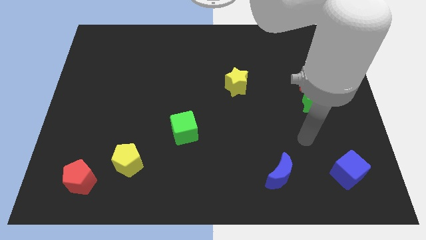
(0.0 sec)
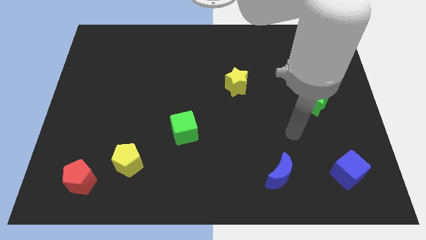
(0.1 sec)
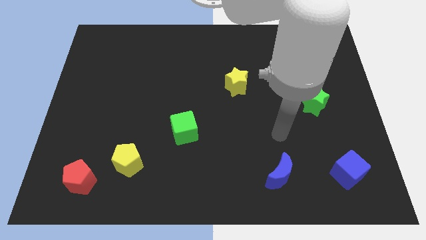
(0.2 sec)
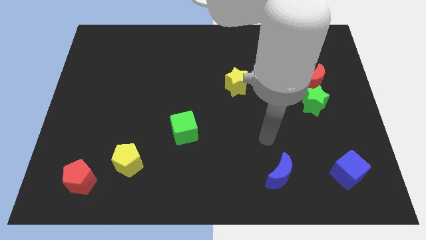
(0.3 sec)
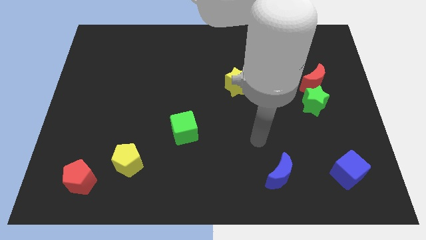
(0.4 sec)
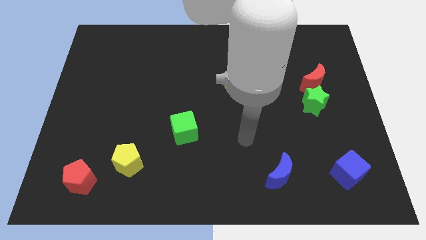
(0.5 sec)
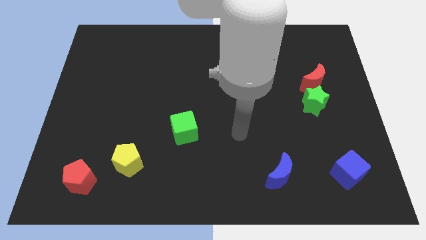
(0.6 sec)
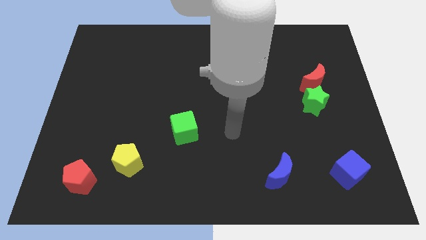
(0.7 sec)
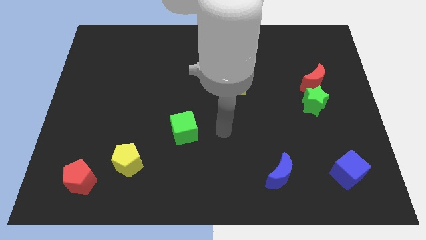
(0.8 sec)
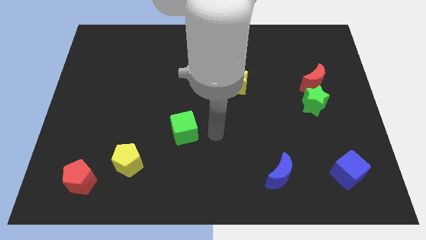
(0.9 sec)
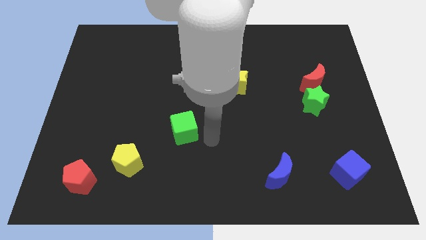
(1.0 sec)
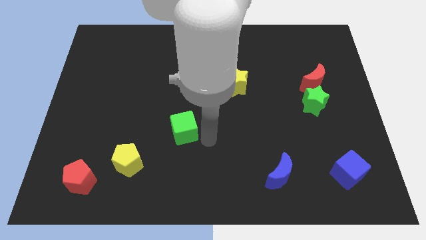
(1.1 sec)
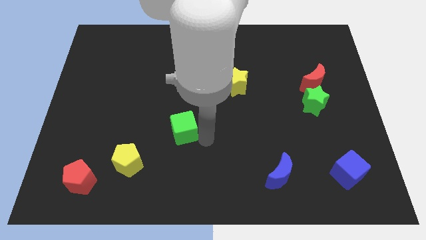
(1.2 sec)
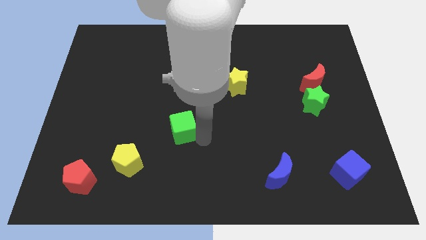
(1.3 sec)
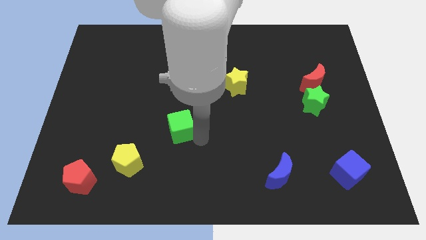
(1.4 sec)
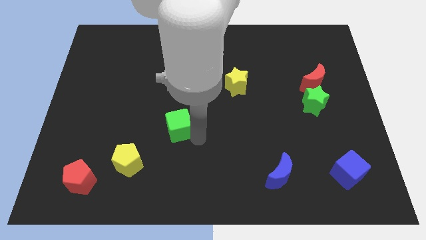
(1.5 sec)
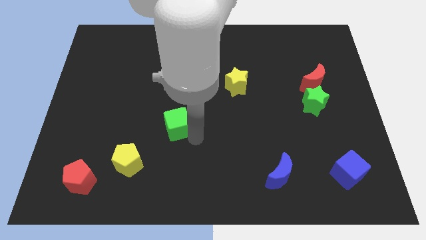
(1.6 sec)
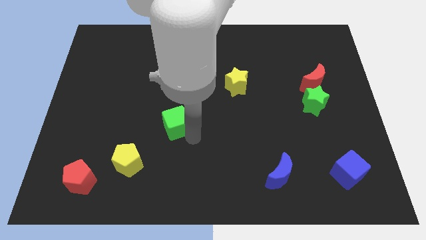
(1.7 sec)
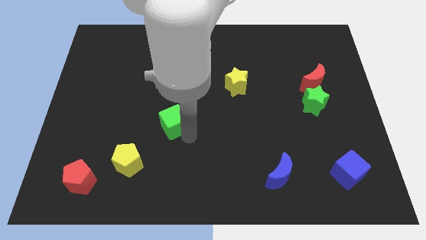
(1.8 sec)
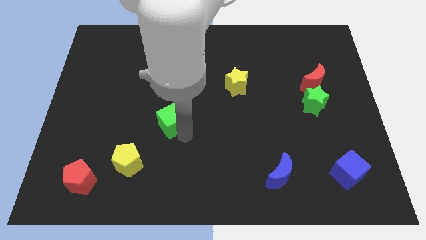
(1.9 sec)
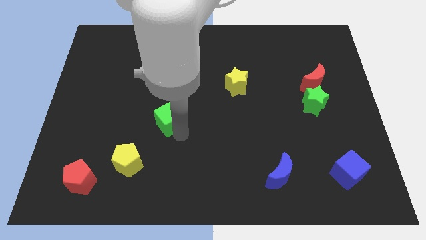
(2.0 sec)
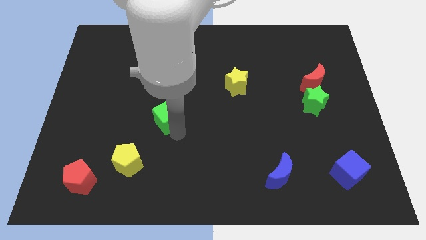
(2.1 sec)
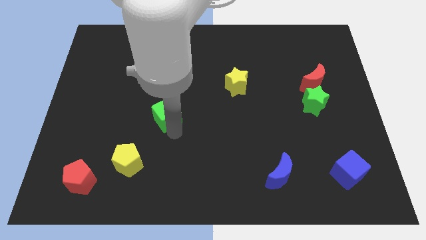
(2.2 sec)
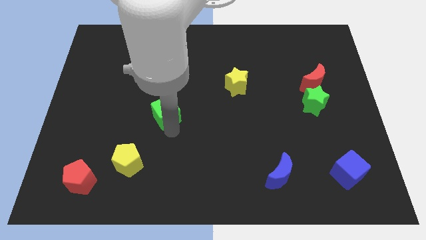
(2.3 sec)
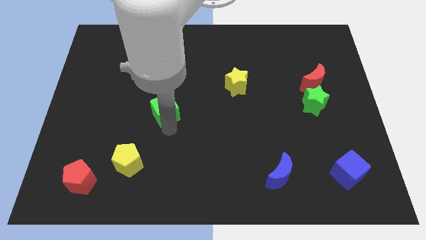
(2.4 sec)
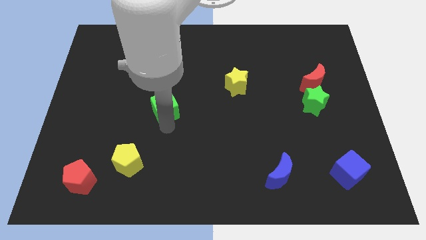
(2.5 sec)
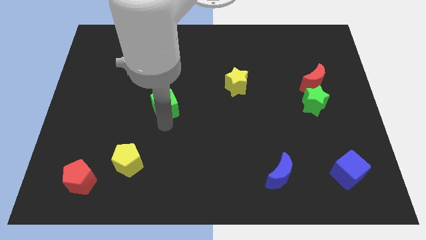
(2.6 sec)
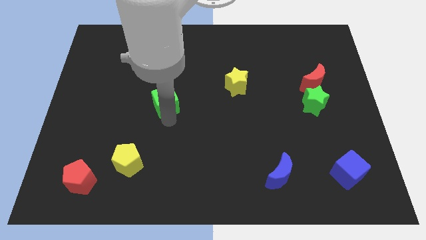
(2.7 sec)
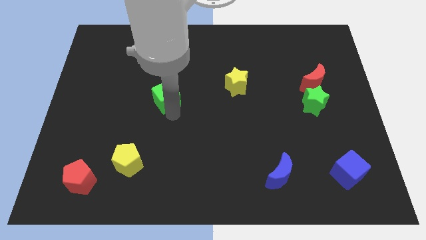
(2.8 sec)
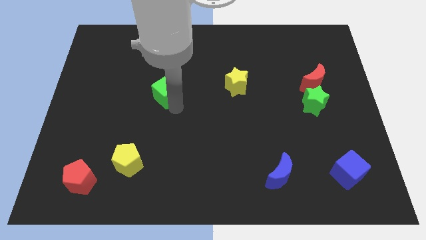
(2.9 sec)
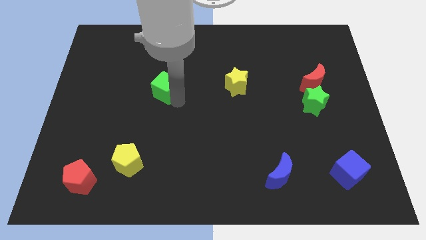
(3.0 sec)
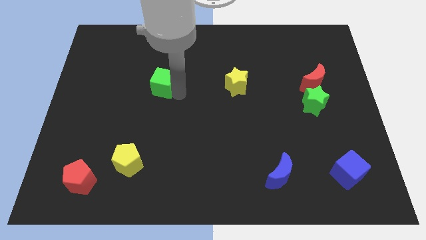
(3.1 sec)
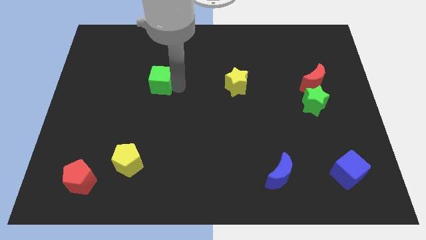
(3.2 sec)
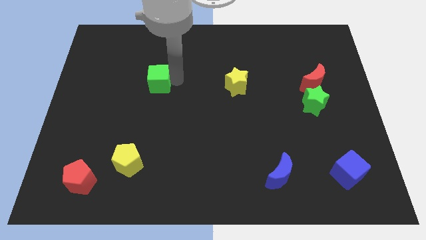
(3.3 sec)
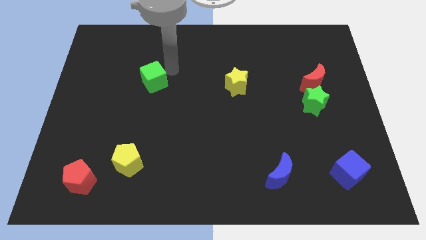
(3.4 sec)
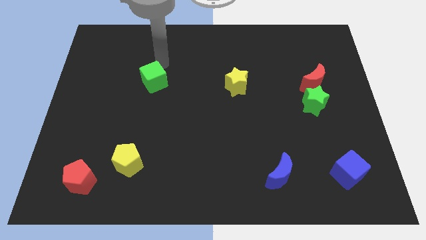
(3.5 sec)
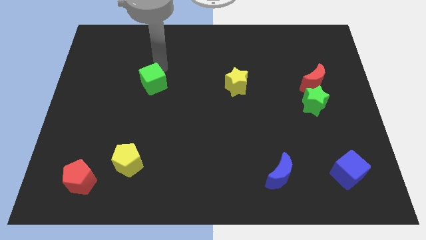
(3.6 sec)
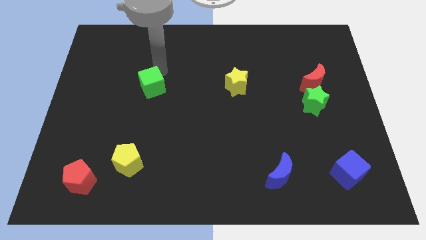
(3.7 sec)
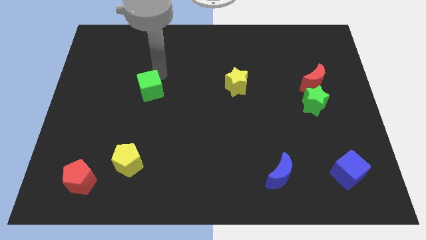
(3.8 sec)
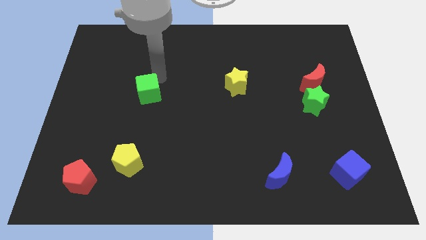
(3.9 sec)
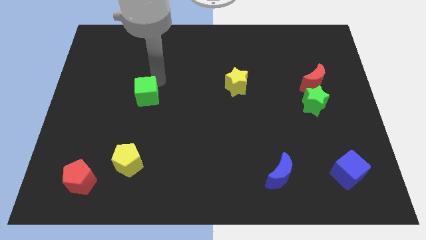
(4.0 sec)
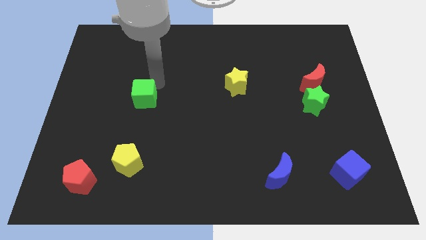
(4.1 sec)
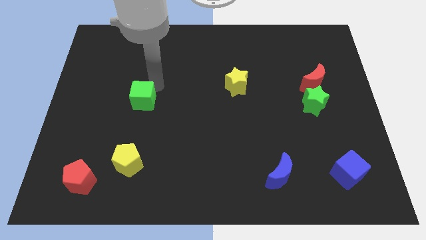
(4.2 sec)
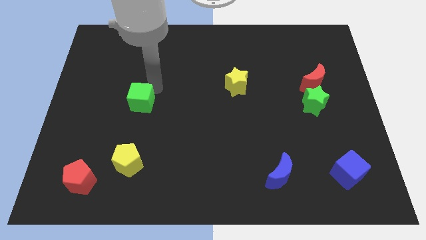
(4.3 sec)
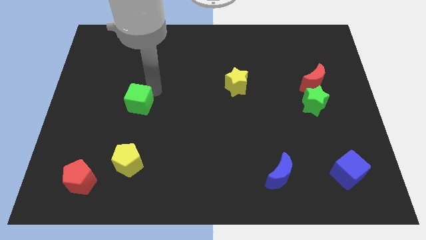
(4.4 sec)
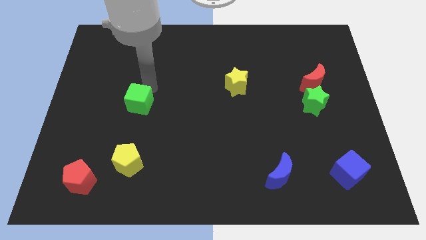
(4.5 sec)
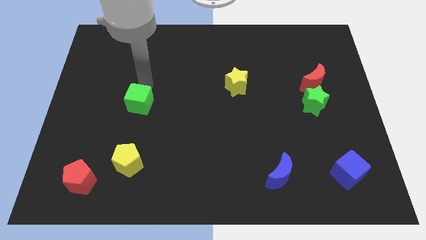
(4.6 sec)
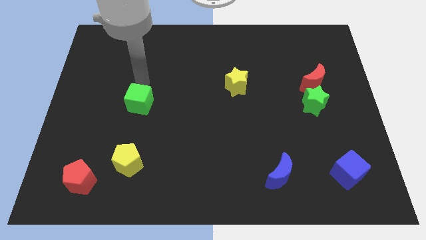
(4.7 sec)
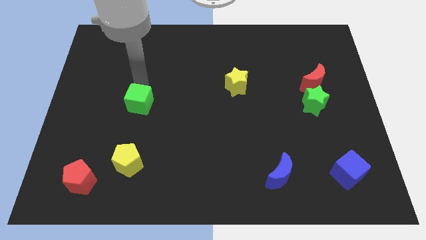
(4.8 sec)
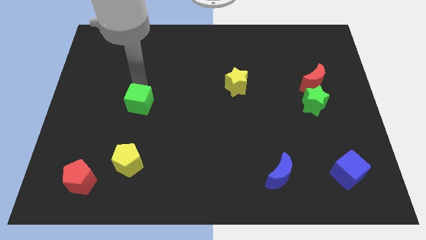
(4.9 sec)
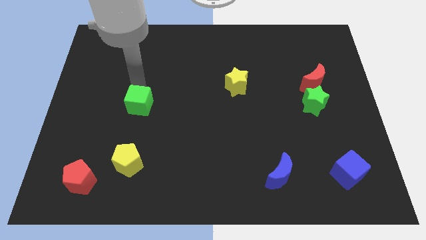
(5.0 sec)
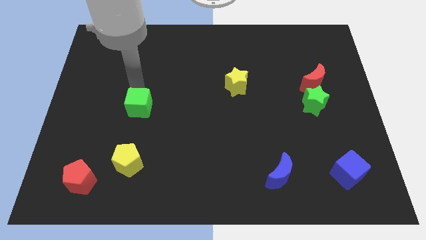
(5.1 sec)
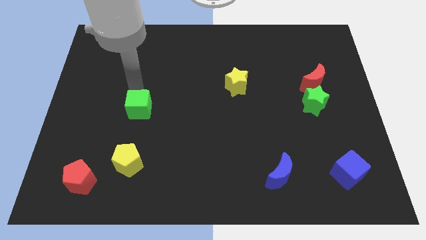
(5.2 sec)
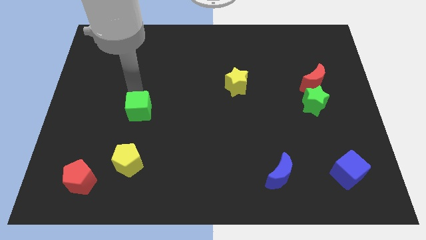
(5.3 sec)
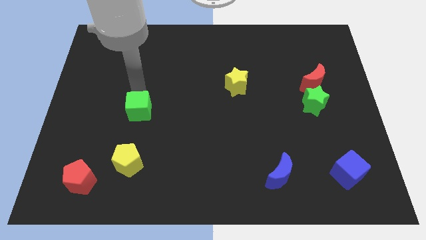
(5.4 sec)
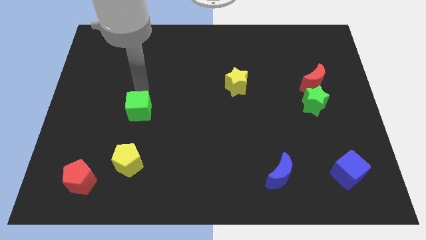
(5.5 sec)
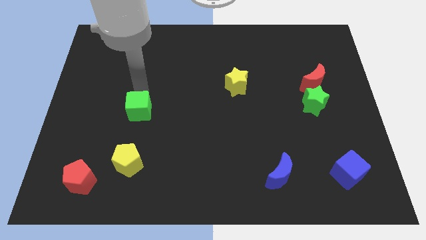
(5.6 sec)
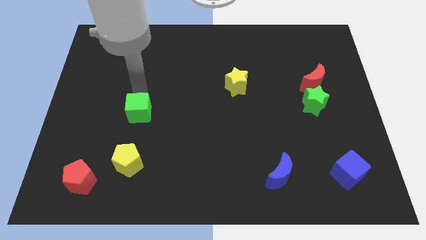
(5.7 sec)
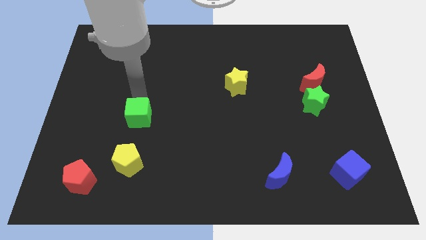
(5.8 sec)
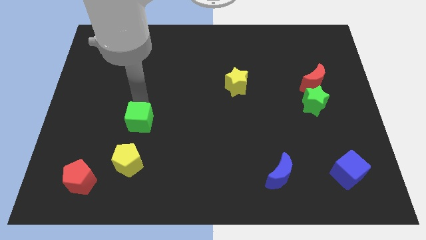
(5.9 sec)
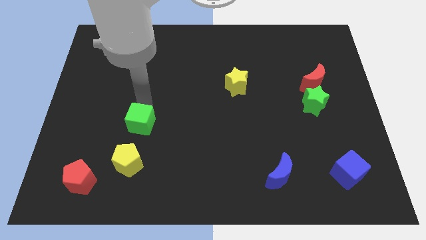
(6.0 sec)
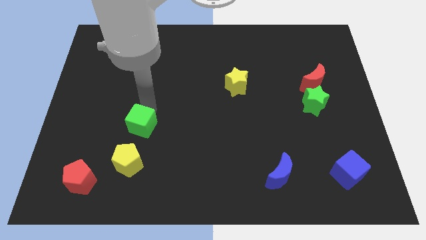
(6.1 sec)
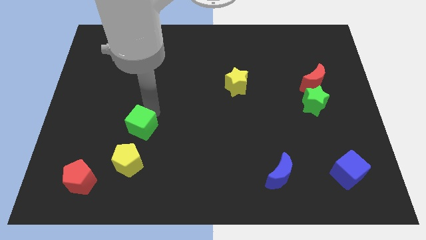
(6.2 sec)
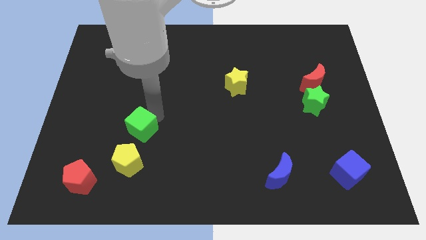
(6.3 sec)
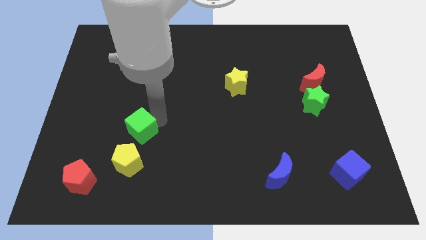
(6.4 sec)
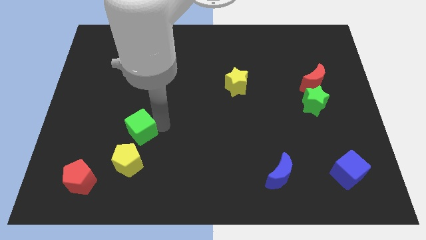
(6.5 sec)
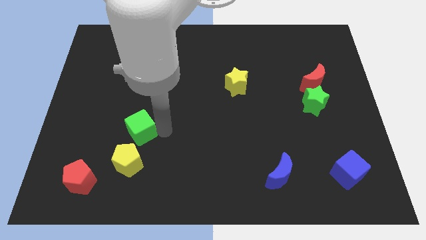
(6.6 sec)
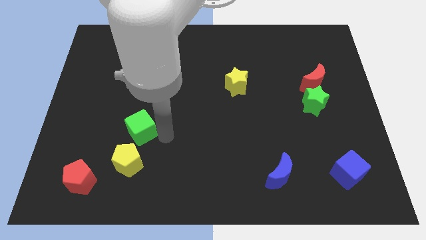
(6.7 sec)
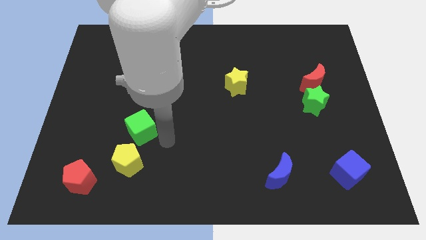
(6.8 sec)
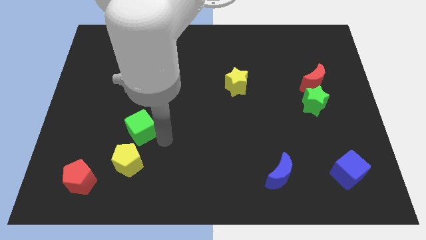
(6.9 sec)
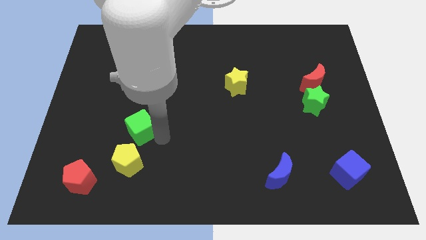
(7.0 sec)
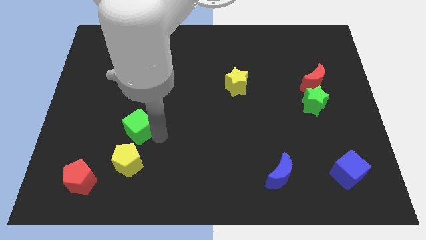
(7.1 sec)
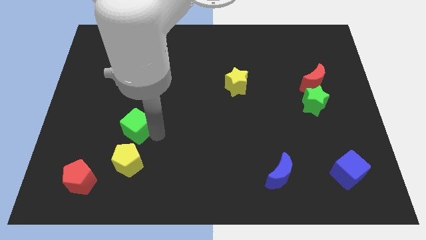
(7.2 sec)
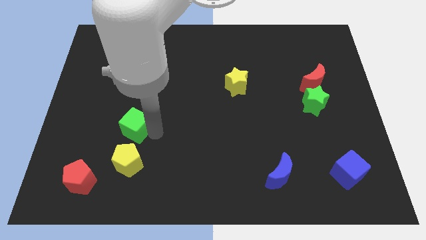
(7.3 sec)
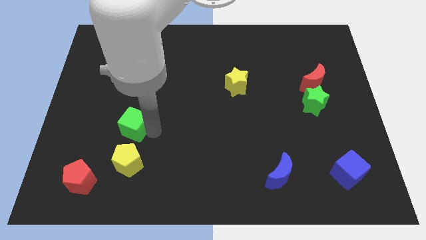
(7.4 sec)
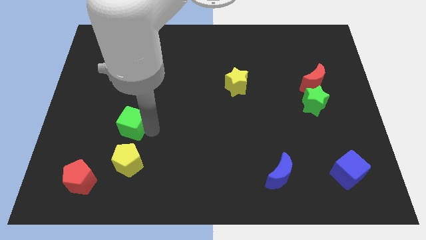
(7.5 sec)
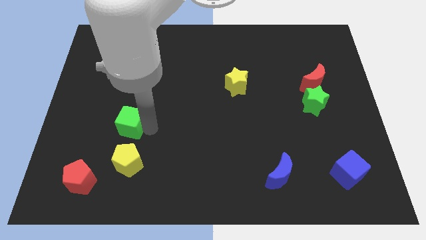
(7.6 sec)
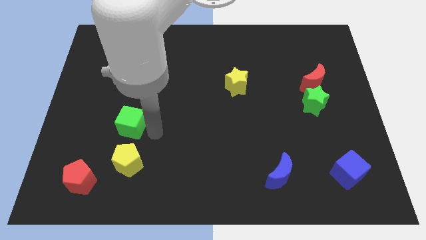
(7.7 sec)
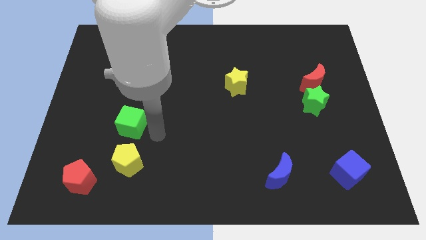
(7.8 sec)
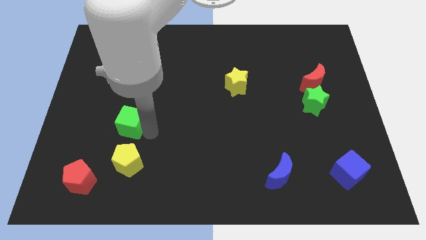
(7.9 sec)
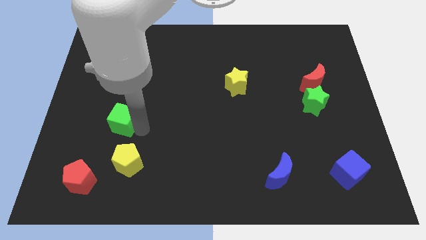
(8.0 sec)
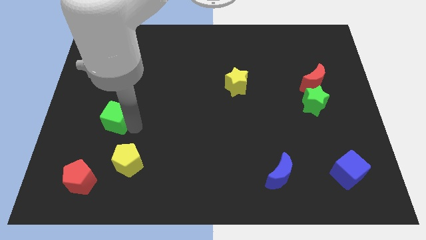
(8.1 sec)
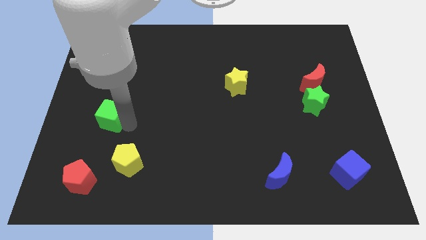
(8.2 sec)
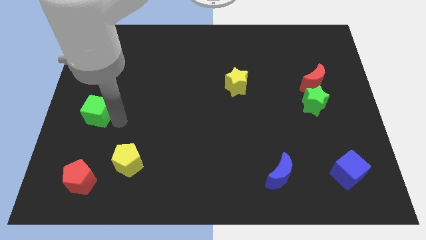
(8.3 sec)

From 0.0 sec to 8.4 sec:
put the green cube to the left side
